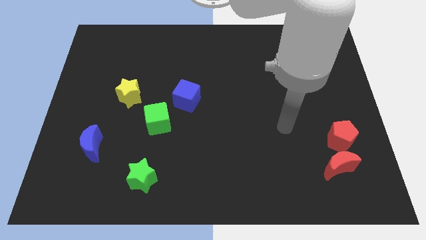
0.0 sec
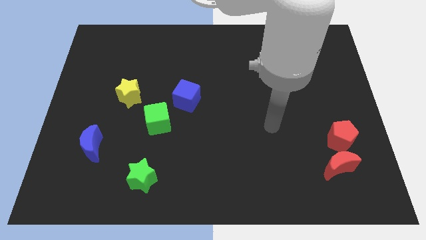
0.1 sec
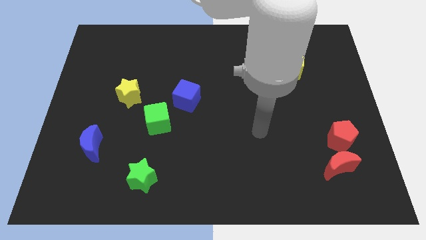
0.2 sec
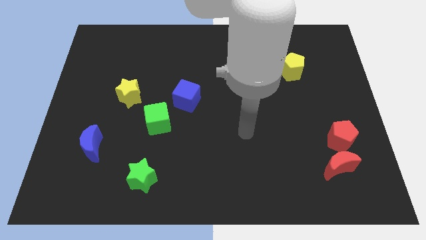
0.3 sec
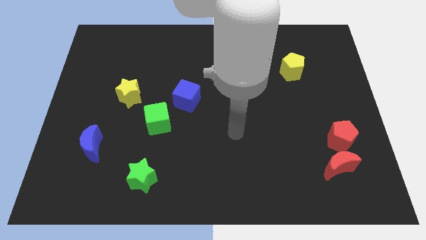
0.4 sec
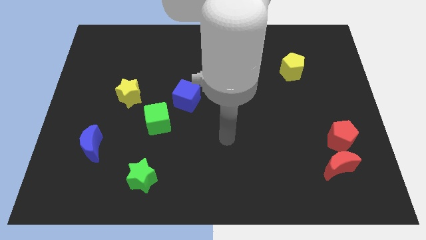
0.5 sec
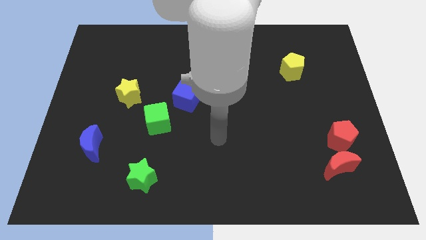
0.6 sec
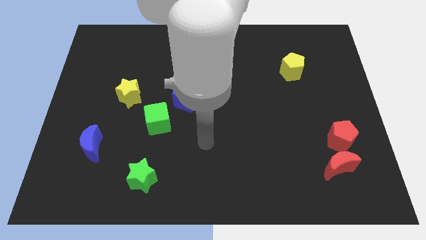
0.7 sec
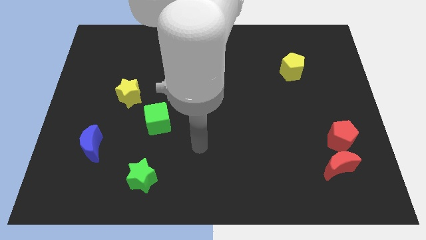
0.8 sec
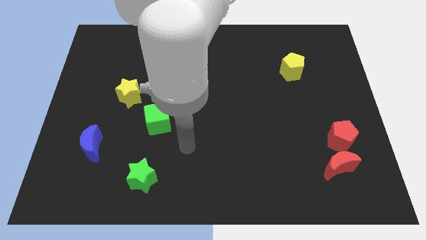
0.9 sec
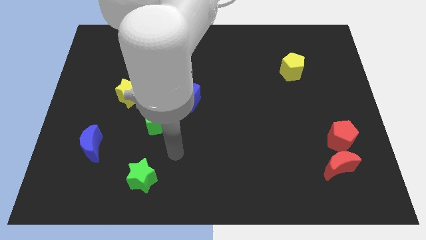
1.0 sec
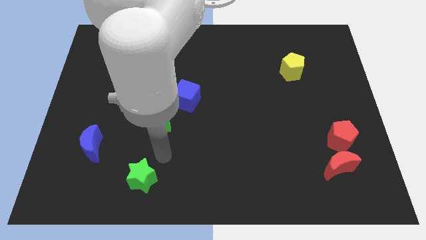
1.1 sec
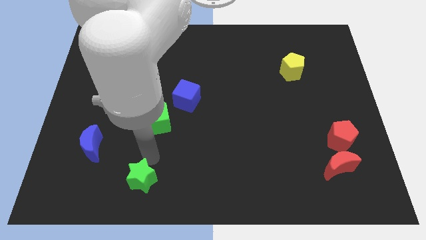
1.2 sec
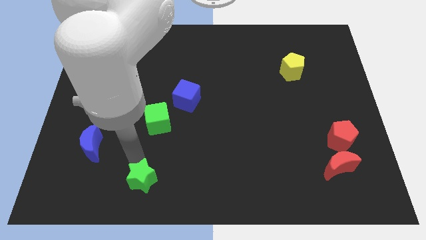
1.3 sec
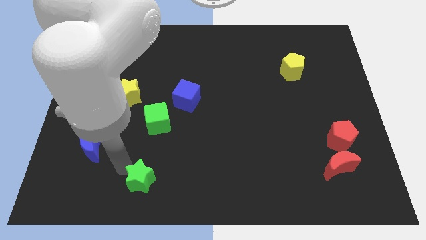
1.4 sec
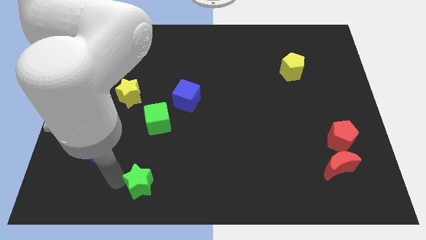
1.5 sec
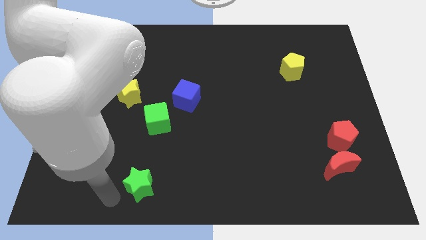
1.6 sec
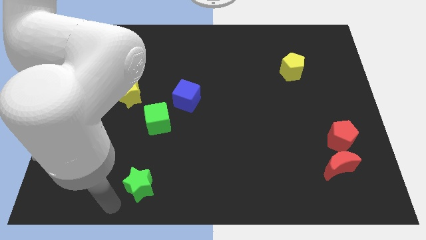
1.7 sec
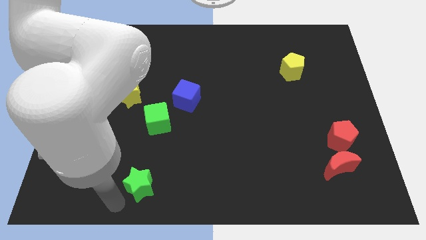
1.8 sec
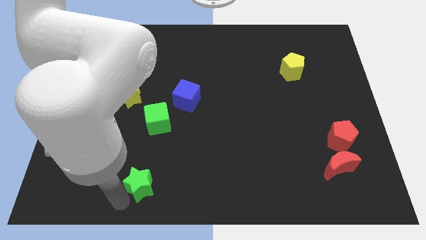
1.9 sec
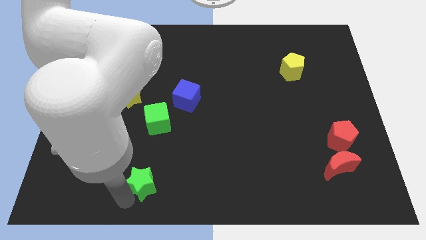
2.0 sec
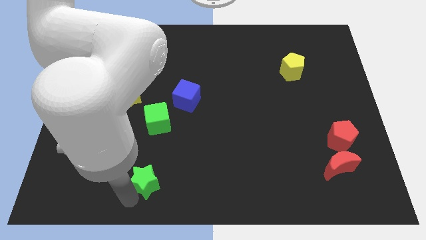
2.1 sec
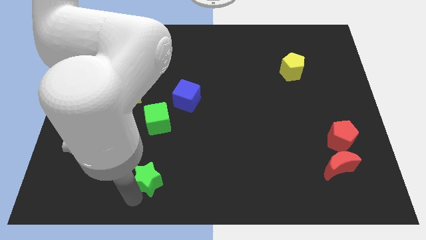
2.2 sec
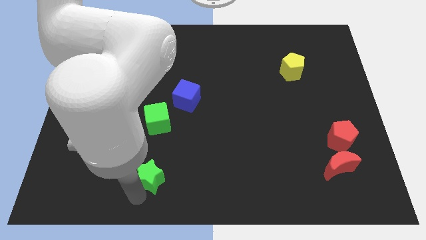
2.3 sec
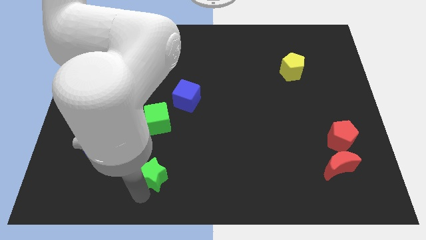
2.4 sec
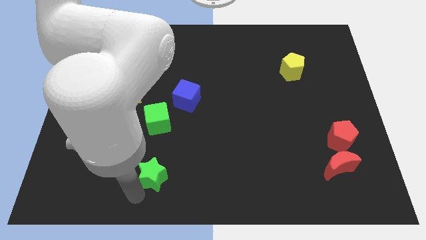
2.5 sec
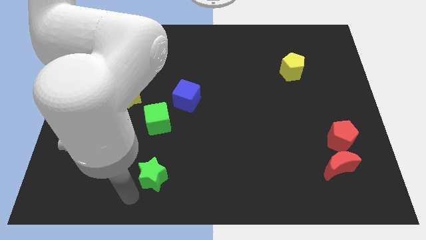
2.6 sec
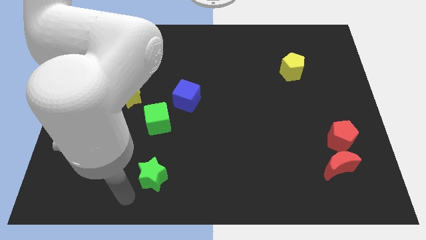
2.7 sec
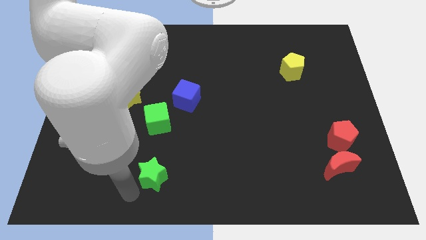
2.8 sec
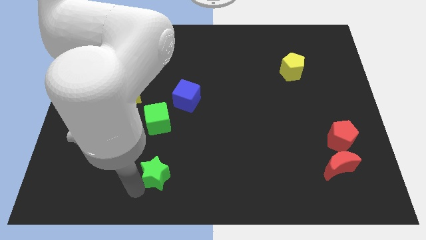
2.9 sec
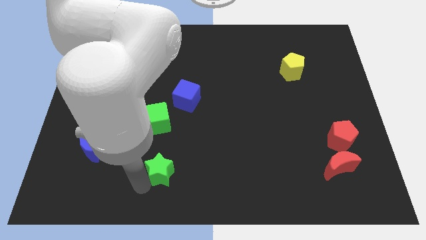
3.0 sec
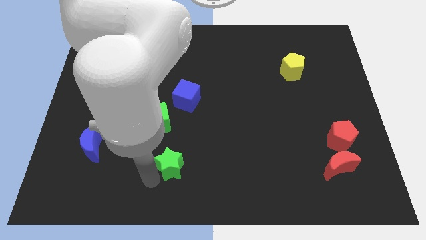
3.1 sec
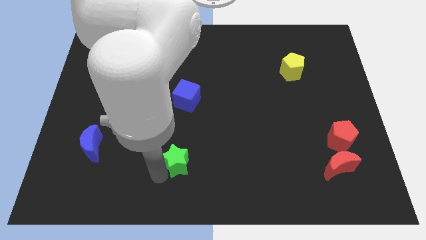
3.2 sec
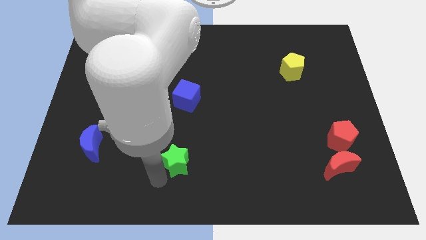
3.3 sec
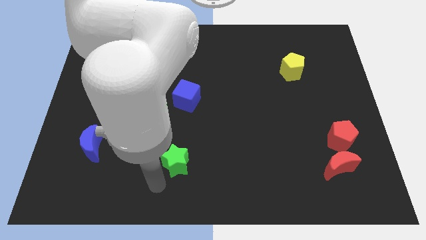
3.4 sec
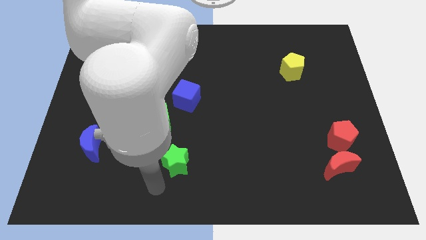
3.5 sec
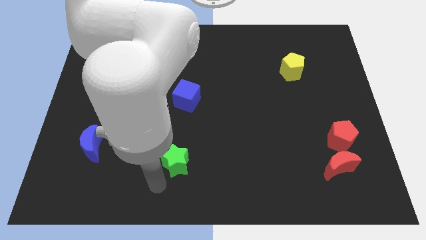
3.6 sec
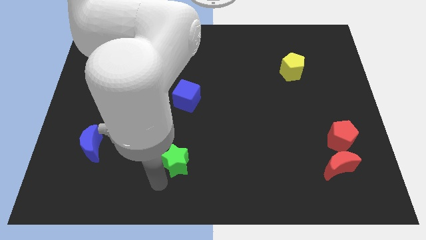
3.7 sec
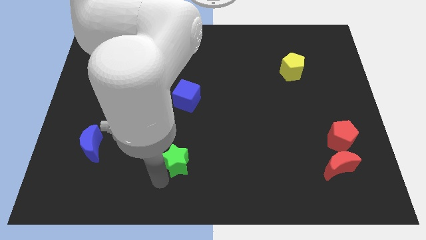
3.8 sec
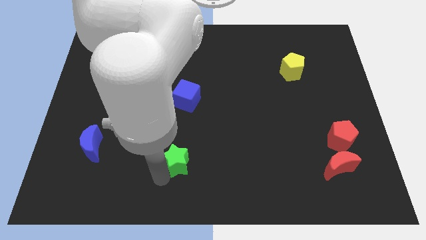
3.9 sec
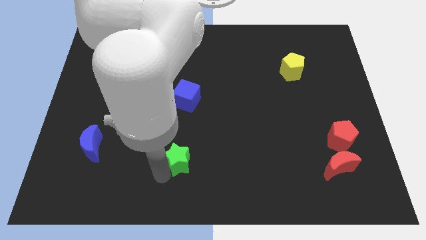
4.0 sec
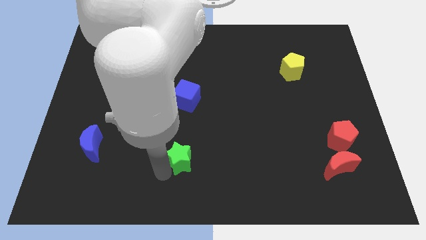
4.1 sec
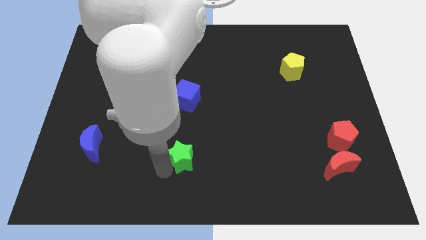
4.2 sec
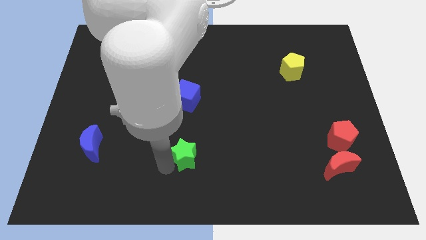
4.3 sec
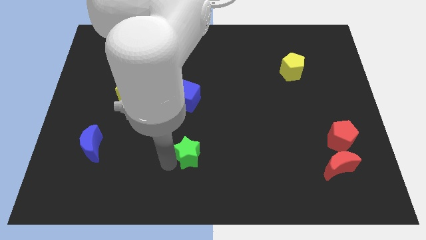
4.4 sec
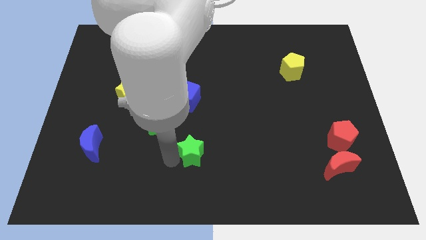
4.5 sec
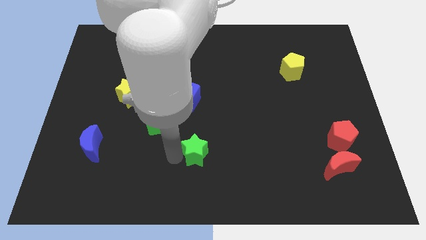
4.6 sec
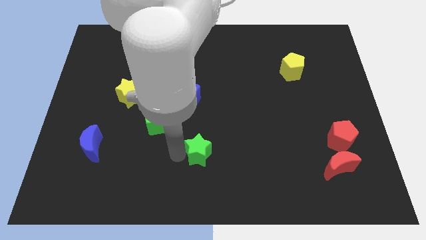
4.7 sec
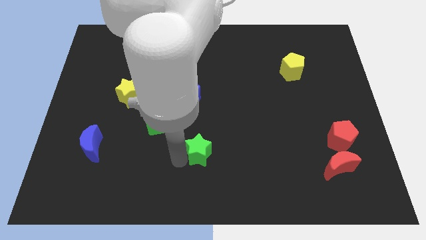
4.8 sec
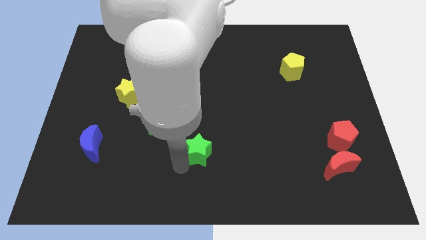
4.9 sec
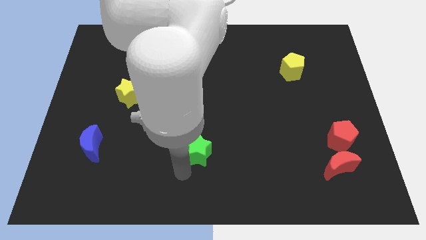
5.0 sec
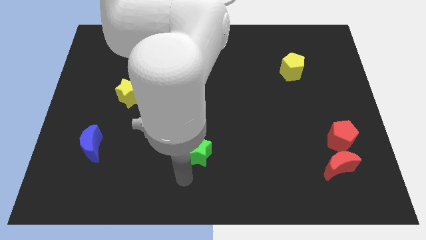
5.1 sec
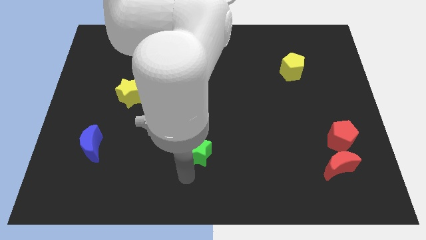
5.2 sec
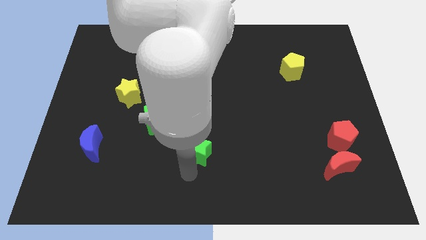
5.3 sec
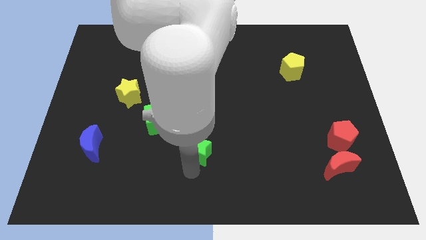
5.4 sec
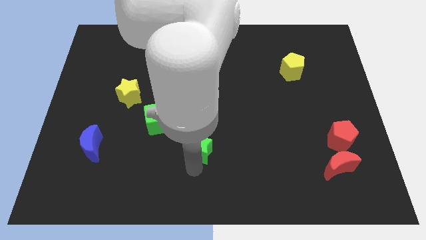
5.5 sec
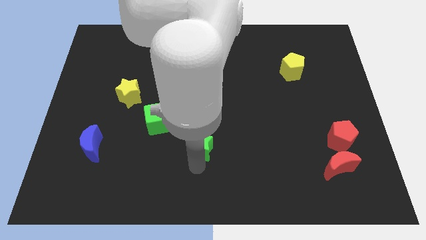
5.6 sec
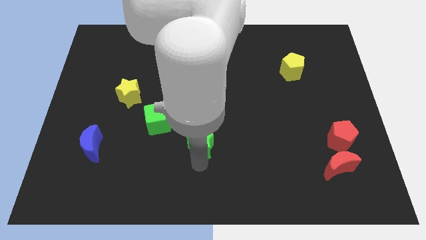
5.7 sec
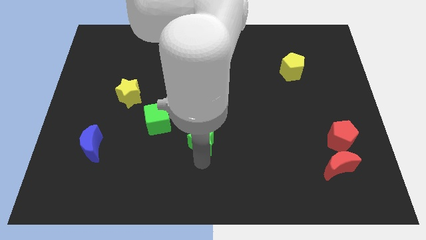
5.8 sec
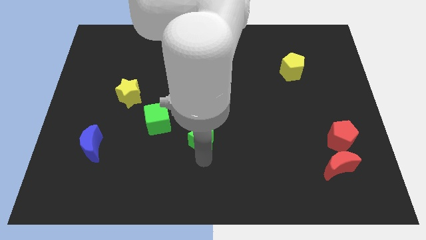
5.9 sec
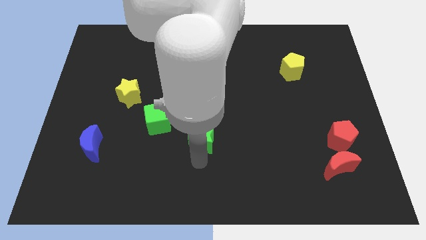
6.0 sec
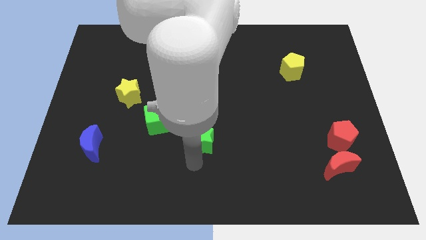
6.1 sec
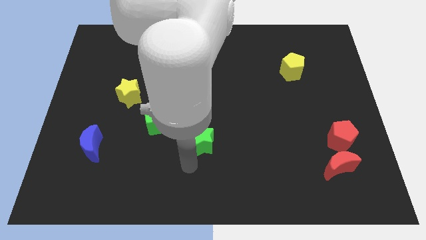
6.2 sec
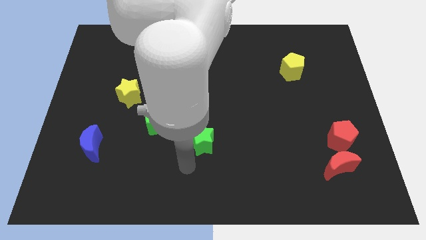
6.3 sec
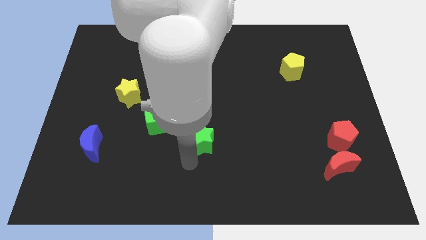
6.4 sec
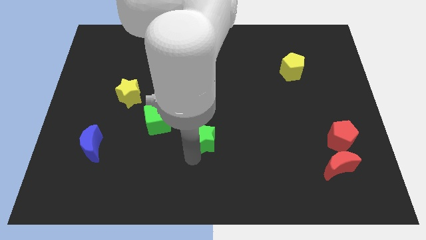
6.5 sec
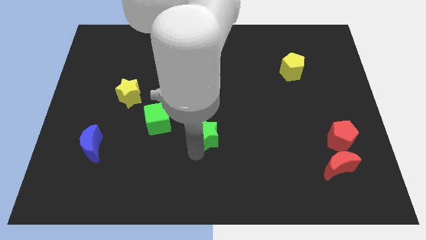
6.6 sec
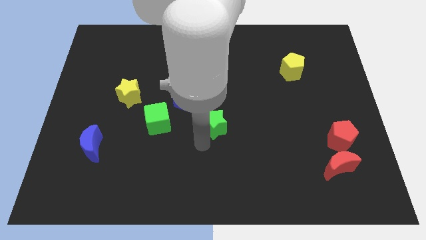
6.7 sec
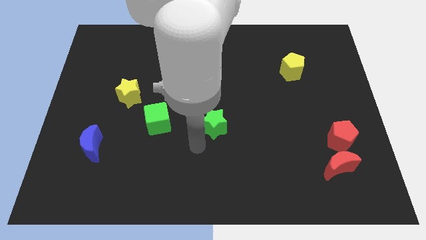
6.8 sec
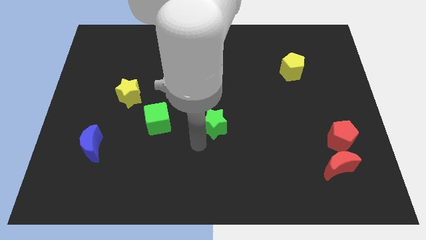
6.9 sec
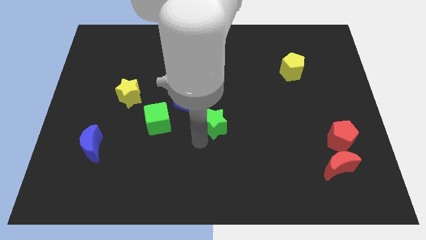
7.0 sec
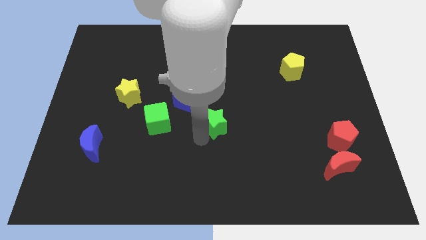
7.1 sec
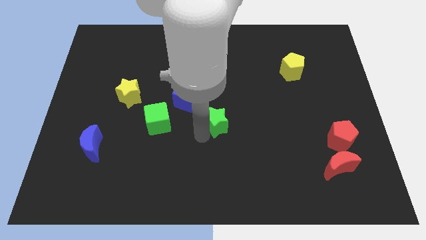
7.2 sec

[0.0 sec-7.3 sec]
push the green star up and to the right

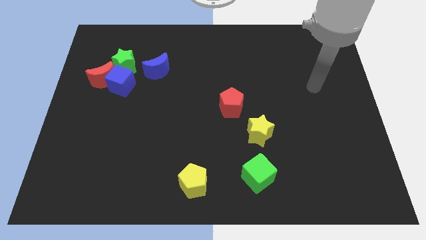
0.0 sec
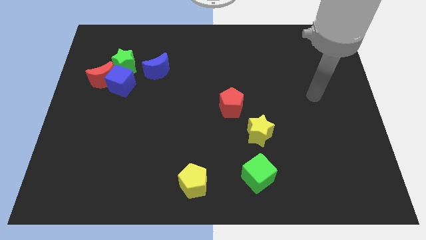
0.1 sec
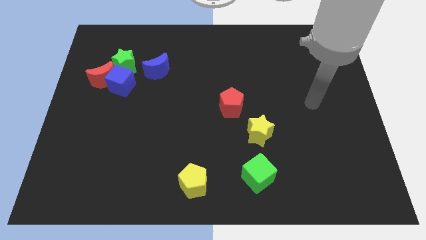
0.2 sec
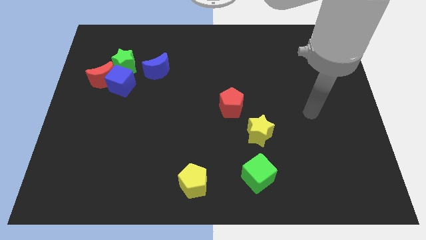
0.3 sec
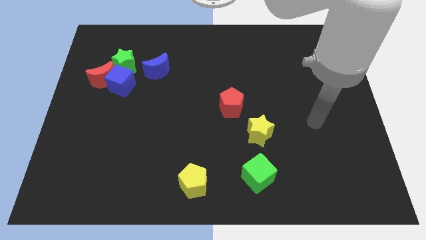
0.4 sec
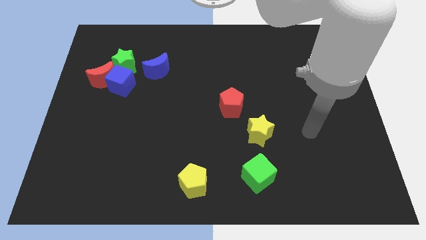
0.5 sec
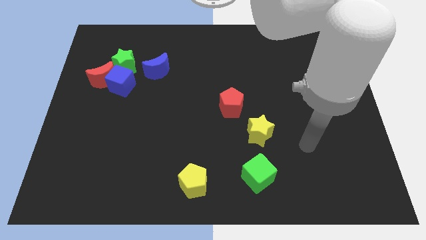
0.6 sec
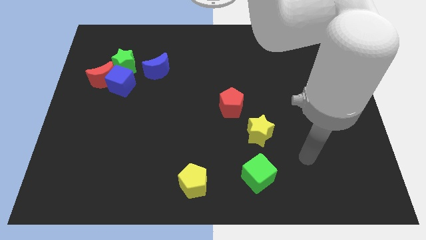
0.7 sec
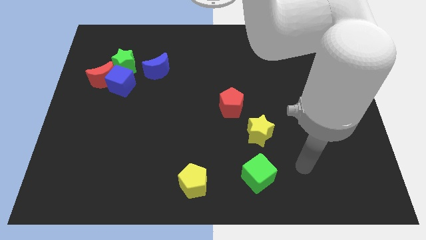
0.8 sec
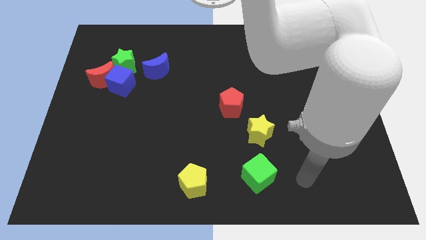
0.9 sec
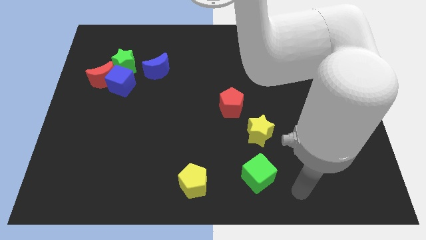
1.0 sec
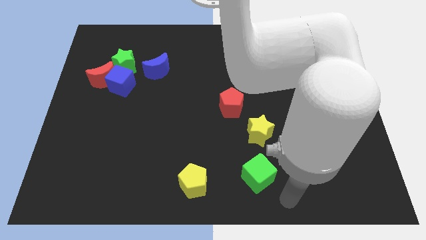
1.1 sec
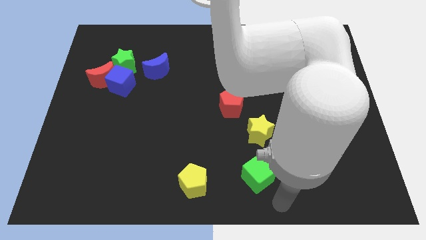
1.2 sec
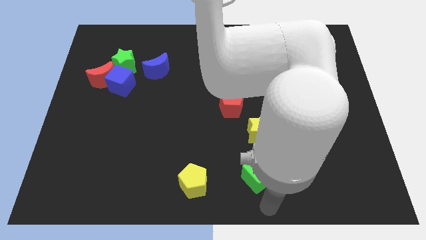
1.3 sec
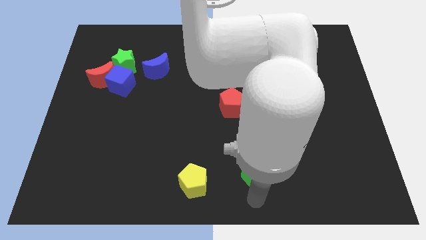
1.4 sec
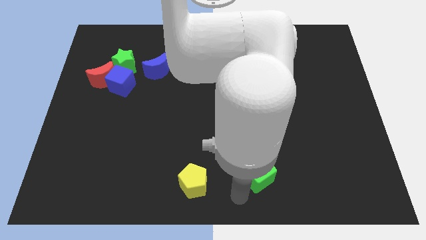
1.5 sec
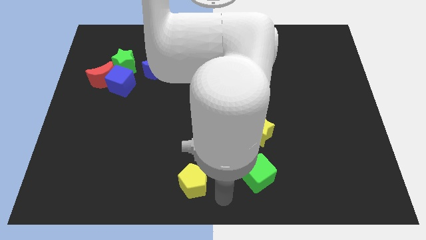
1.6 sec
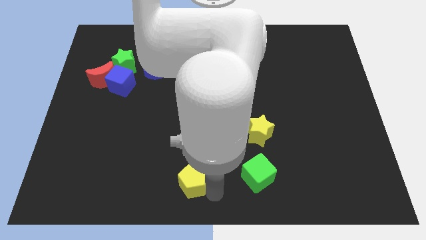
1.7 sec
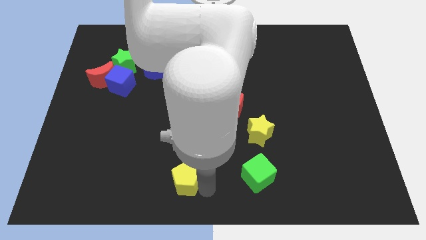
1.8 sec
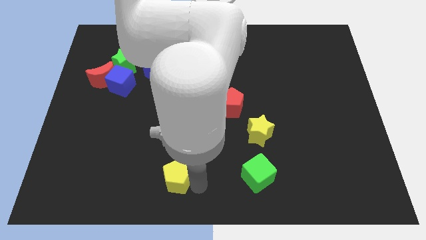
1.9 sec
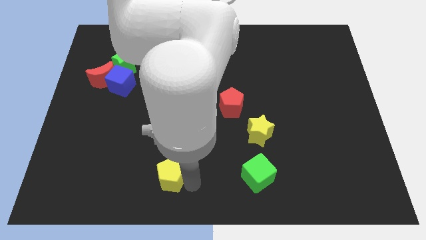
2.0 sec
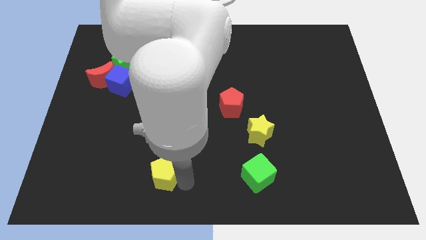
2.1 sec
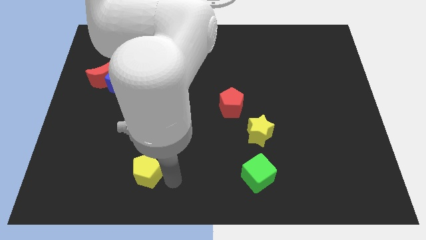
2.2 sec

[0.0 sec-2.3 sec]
push the yellow pentagon a bit diagonally upwards and left
